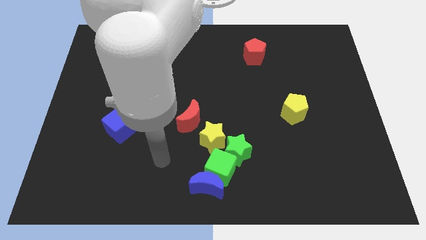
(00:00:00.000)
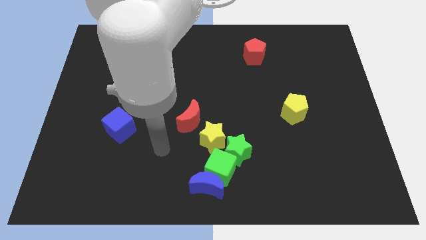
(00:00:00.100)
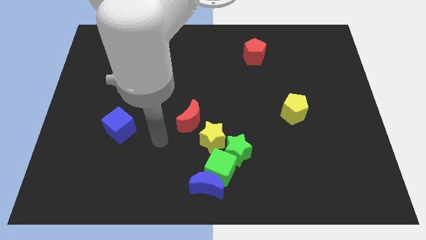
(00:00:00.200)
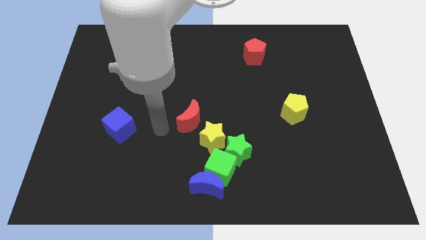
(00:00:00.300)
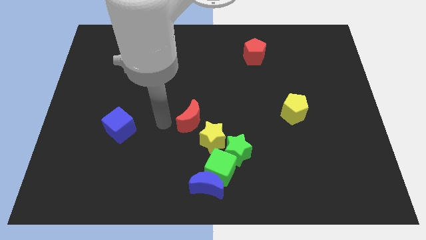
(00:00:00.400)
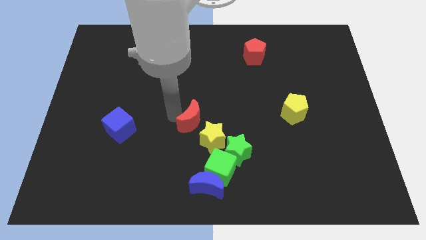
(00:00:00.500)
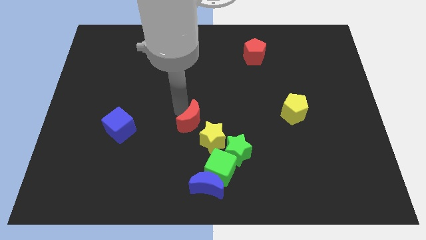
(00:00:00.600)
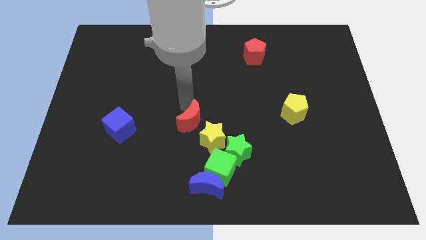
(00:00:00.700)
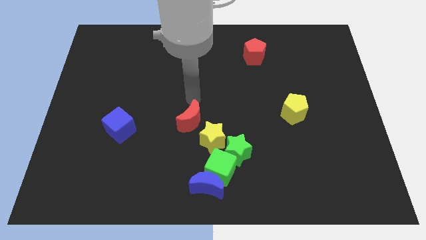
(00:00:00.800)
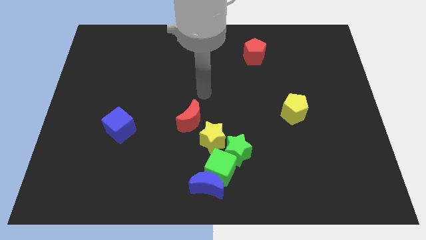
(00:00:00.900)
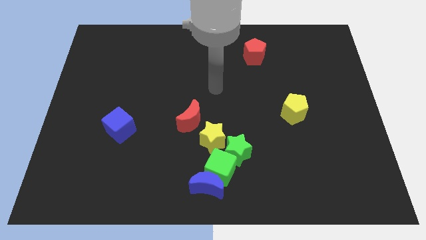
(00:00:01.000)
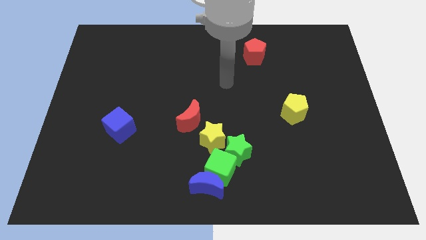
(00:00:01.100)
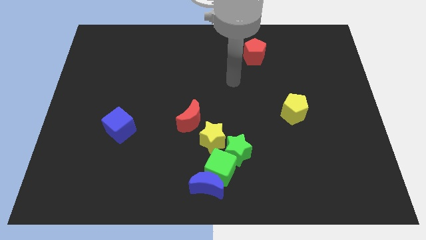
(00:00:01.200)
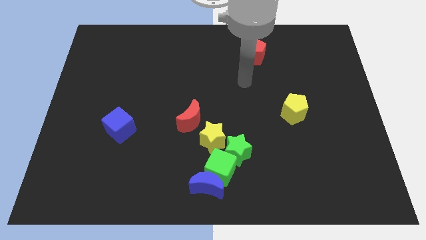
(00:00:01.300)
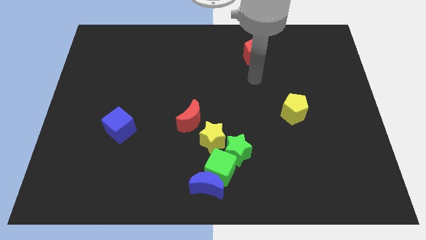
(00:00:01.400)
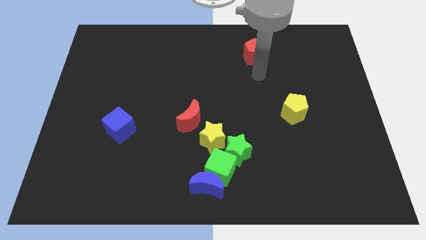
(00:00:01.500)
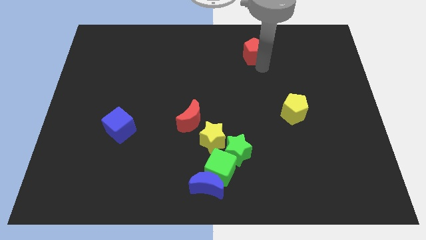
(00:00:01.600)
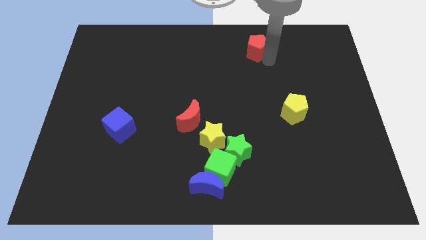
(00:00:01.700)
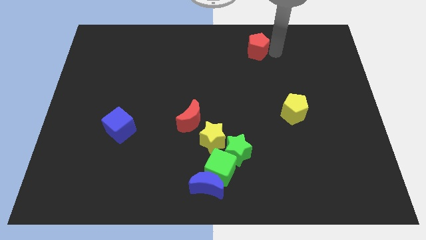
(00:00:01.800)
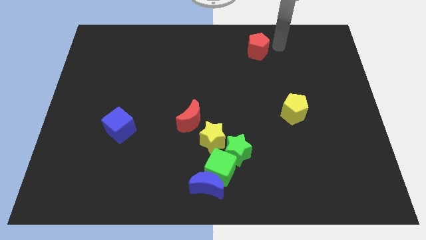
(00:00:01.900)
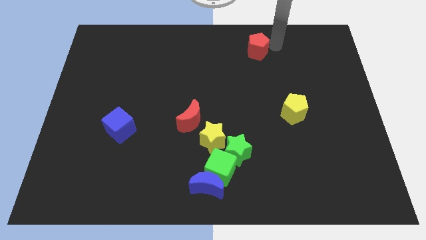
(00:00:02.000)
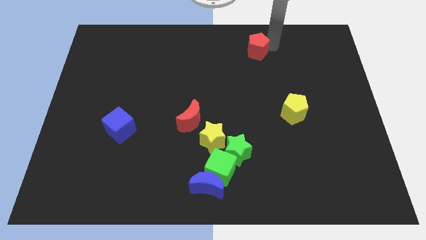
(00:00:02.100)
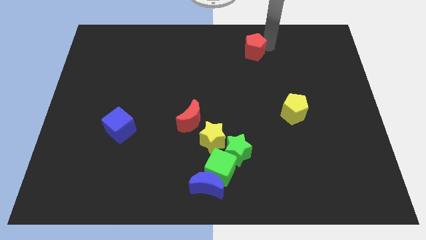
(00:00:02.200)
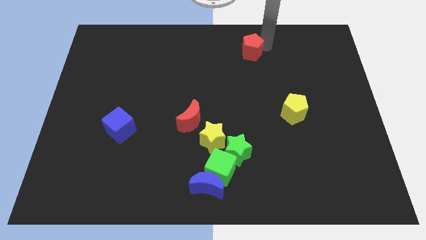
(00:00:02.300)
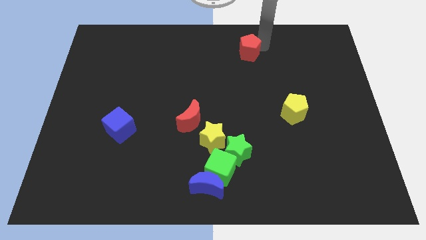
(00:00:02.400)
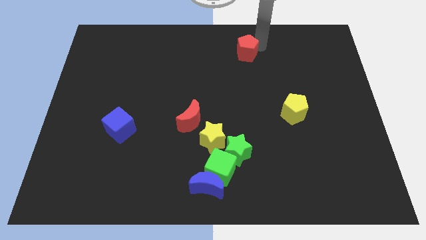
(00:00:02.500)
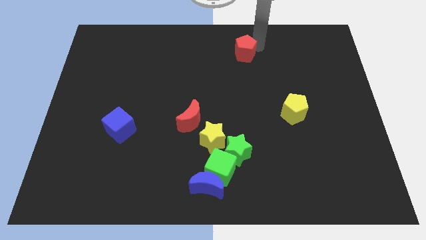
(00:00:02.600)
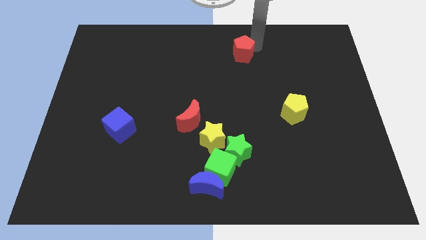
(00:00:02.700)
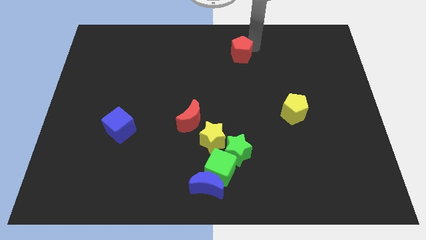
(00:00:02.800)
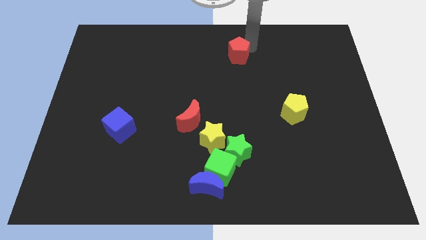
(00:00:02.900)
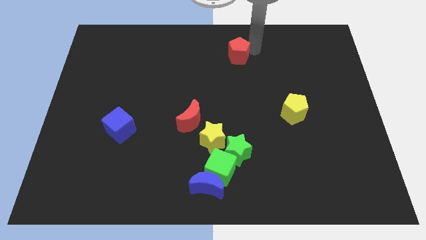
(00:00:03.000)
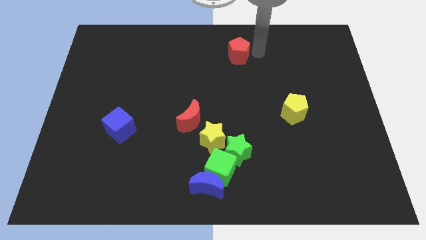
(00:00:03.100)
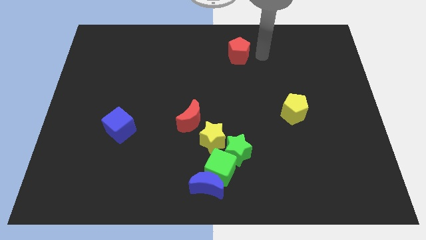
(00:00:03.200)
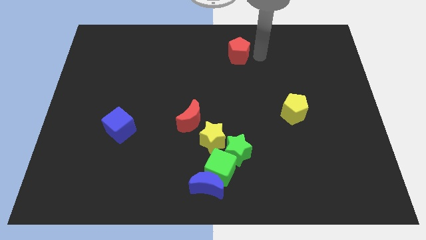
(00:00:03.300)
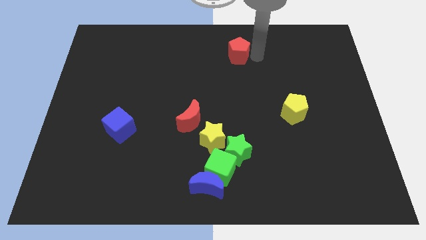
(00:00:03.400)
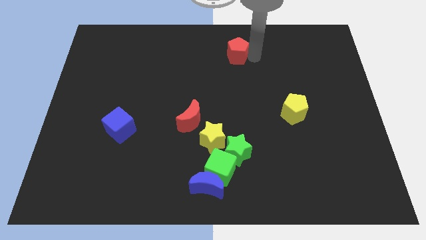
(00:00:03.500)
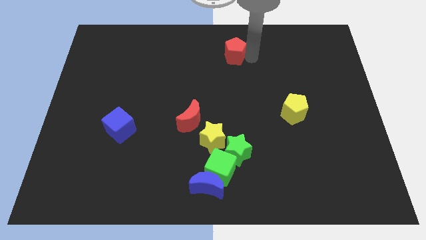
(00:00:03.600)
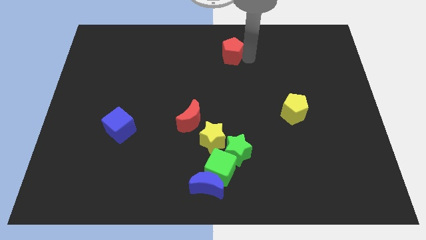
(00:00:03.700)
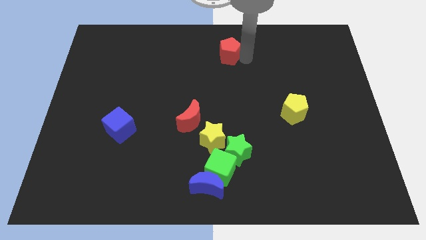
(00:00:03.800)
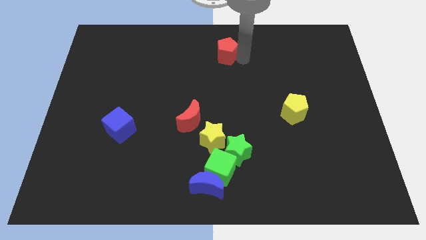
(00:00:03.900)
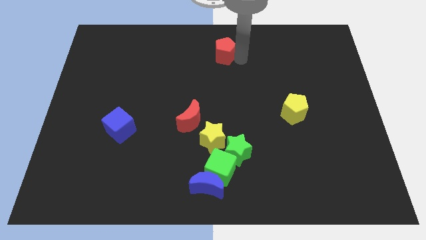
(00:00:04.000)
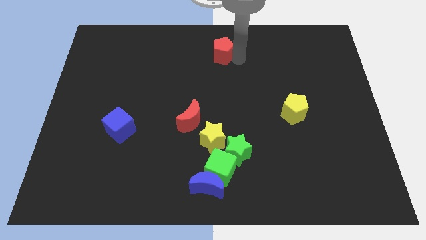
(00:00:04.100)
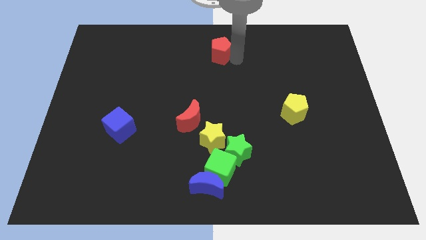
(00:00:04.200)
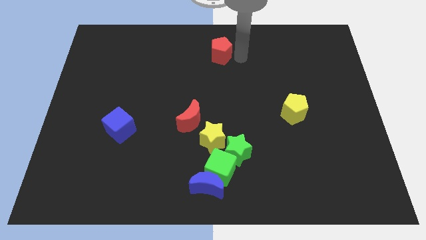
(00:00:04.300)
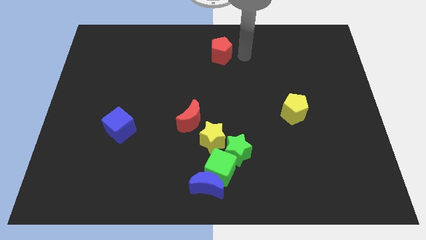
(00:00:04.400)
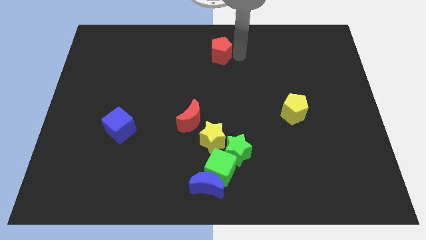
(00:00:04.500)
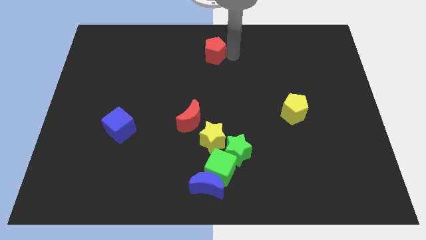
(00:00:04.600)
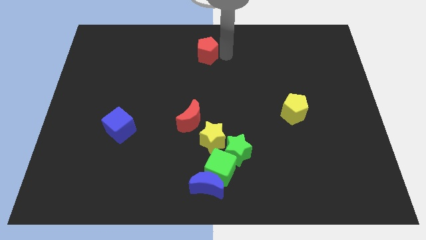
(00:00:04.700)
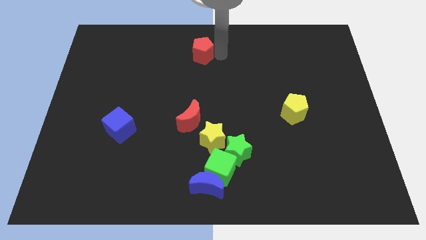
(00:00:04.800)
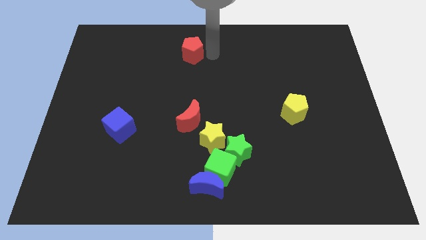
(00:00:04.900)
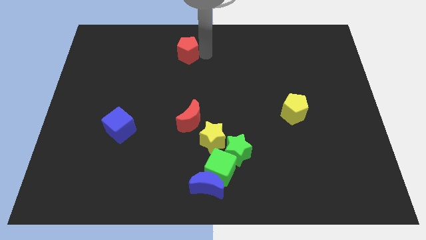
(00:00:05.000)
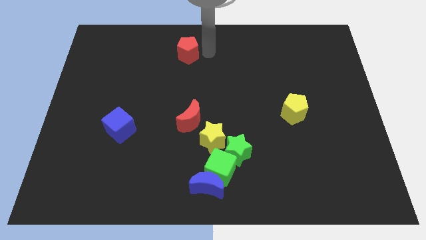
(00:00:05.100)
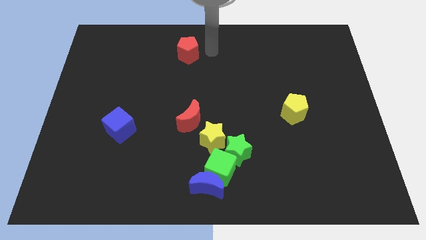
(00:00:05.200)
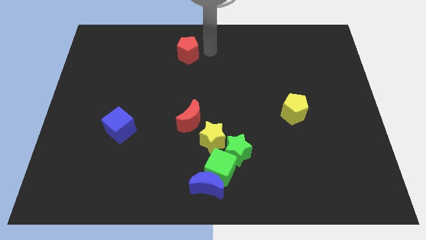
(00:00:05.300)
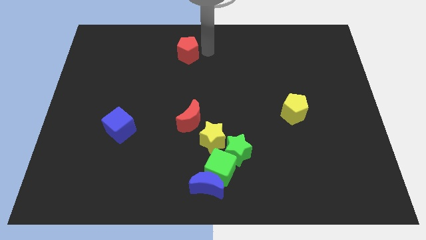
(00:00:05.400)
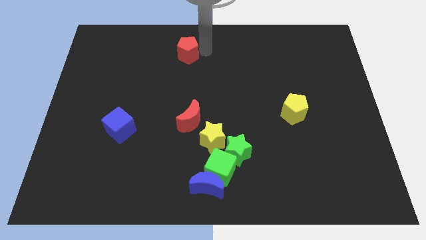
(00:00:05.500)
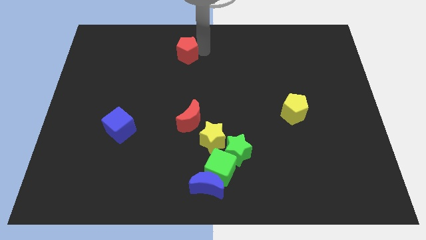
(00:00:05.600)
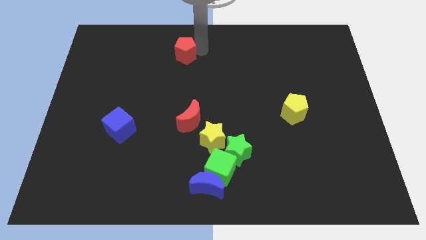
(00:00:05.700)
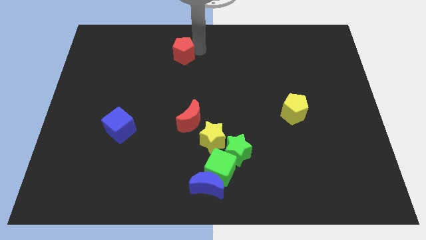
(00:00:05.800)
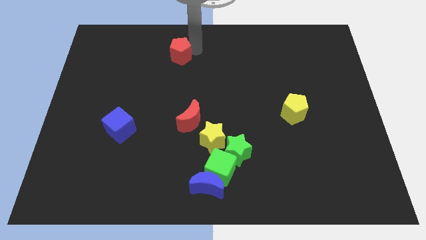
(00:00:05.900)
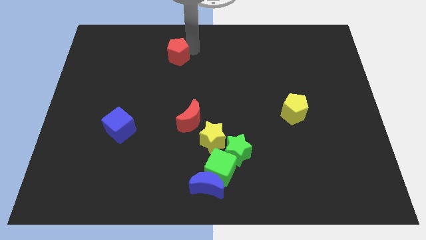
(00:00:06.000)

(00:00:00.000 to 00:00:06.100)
push the red pentagon to the left

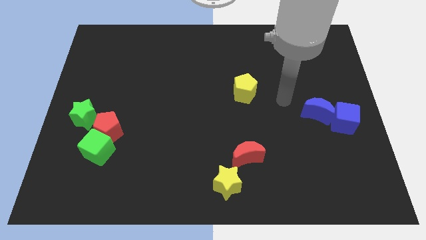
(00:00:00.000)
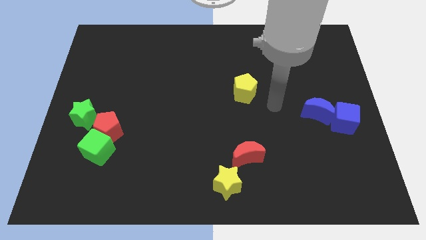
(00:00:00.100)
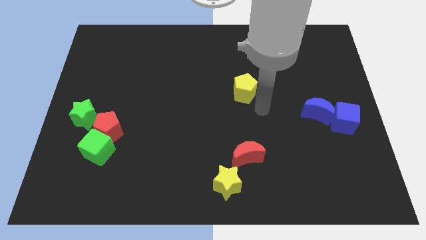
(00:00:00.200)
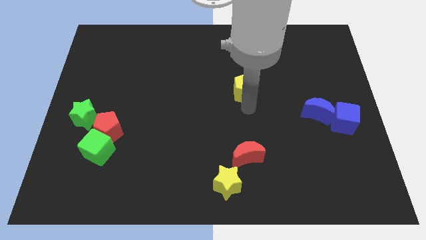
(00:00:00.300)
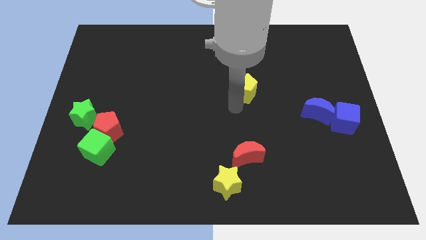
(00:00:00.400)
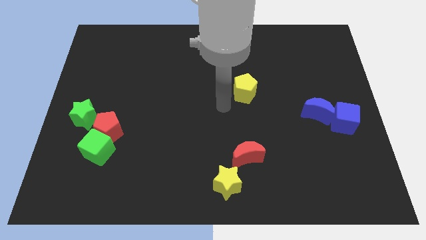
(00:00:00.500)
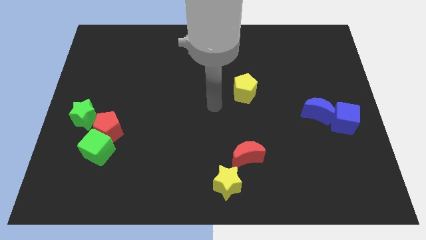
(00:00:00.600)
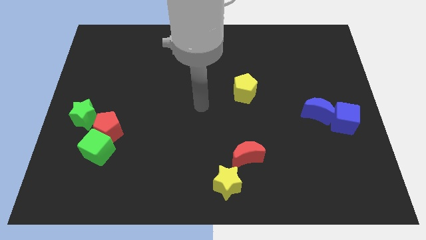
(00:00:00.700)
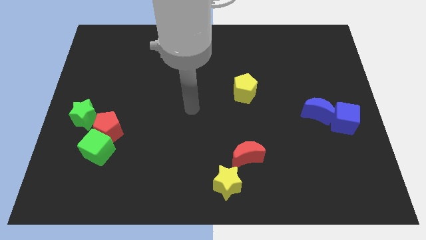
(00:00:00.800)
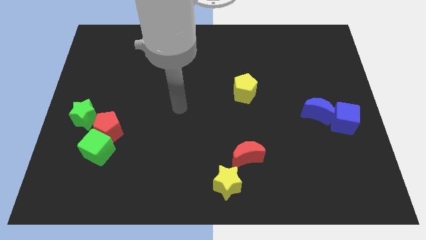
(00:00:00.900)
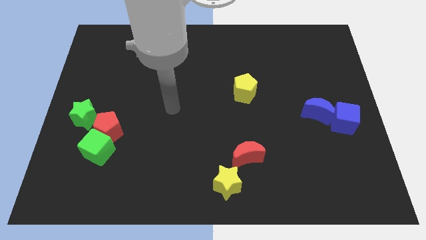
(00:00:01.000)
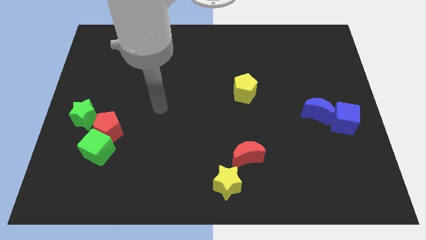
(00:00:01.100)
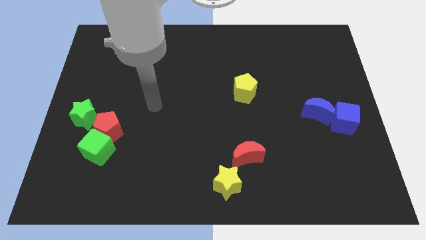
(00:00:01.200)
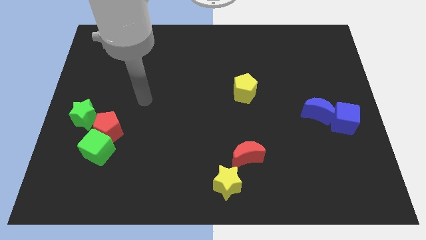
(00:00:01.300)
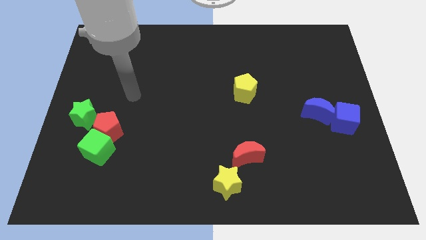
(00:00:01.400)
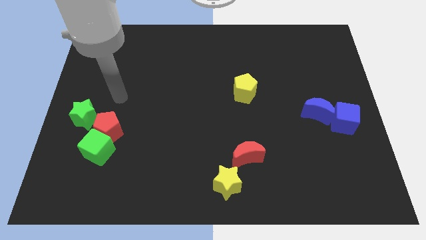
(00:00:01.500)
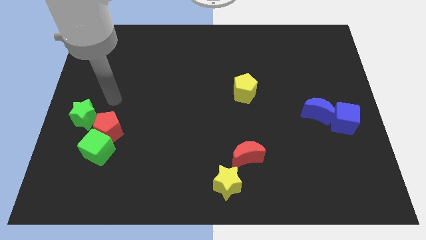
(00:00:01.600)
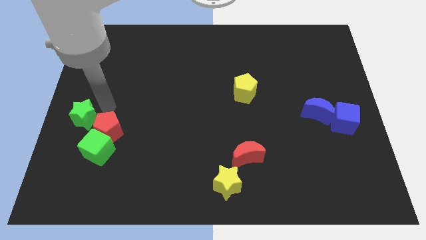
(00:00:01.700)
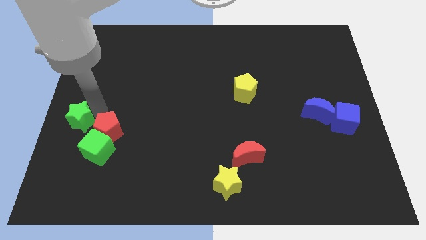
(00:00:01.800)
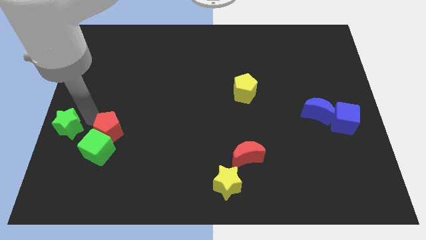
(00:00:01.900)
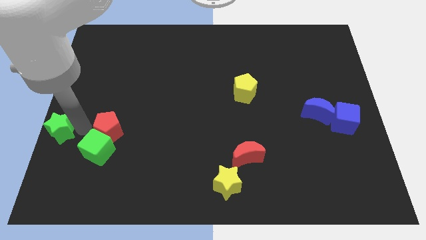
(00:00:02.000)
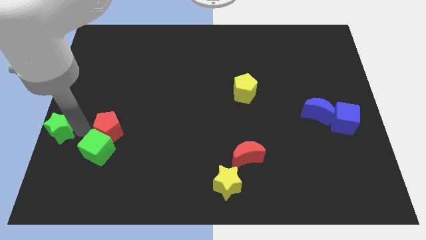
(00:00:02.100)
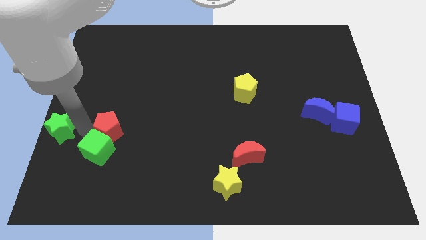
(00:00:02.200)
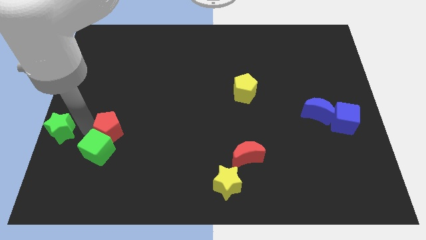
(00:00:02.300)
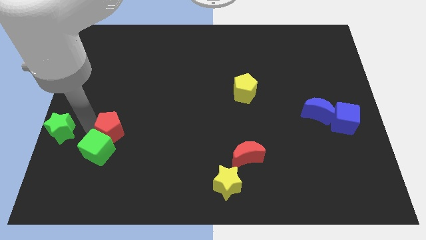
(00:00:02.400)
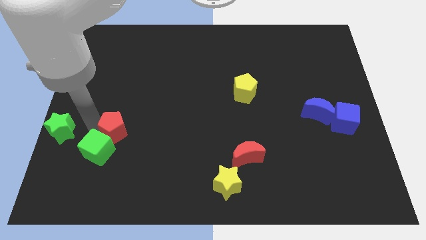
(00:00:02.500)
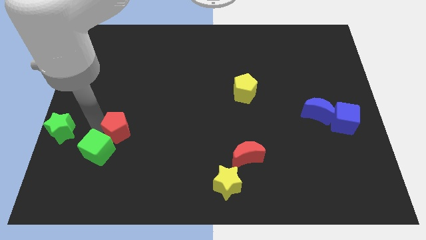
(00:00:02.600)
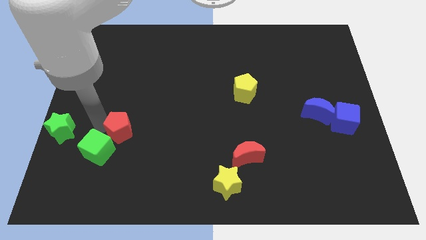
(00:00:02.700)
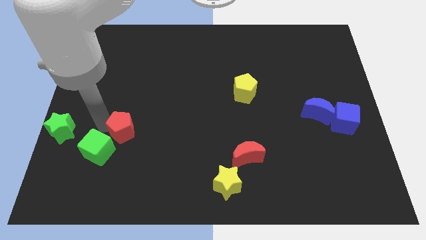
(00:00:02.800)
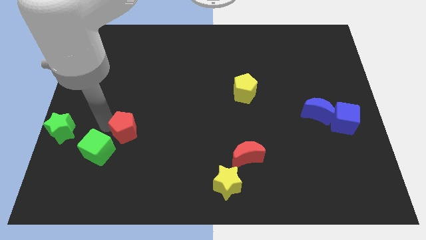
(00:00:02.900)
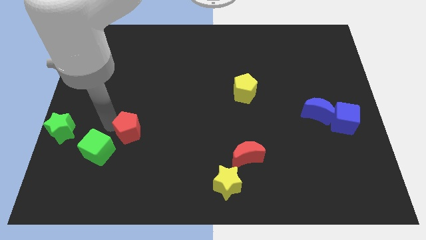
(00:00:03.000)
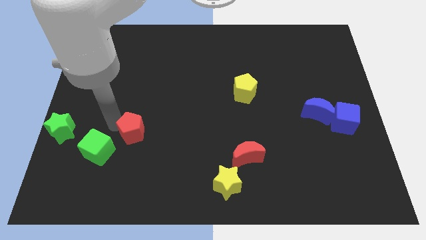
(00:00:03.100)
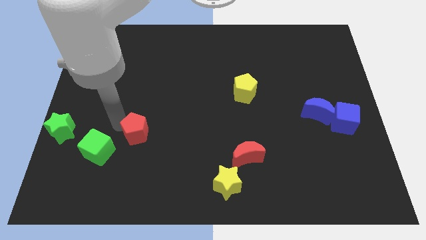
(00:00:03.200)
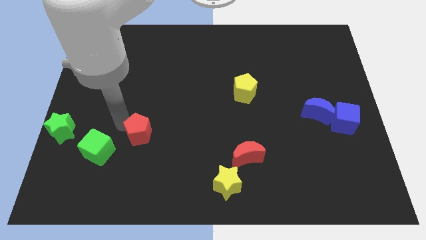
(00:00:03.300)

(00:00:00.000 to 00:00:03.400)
slightly push the red pentagon to the right
